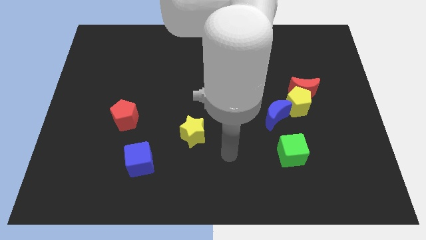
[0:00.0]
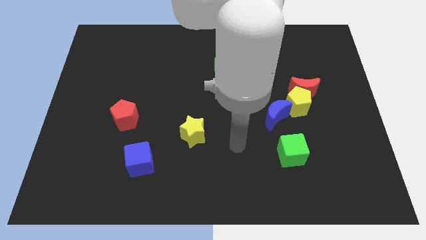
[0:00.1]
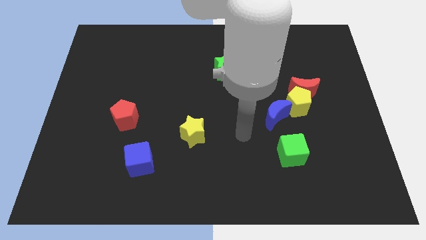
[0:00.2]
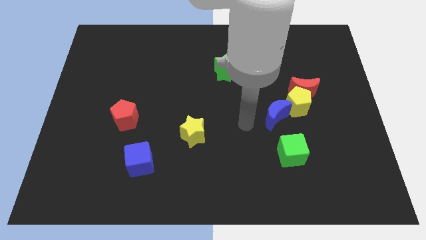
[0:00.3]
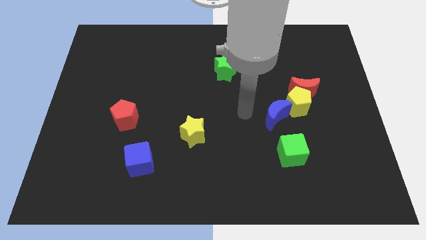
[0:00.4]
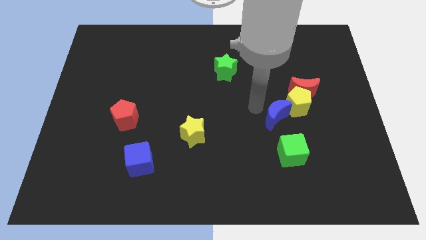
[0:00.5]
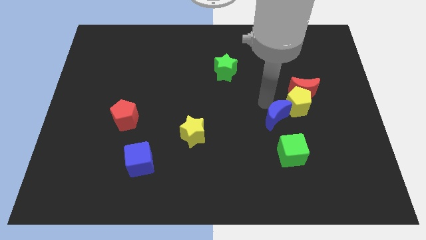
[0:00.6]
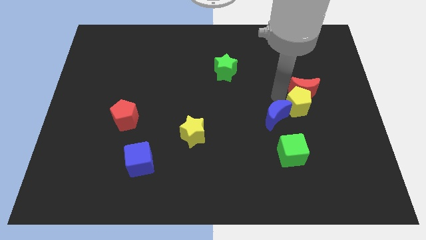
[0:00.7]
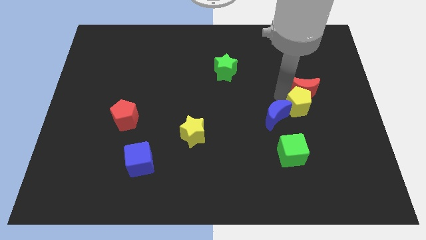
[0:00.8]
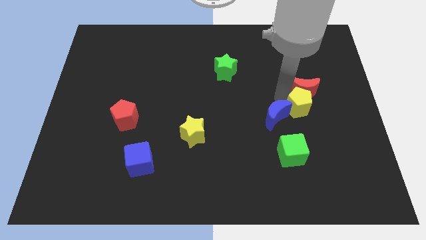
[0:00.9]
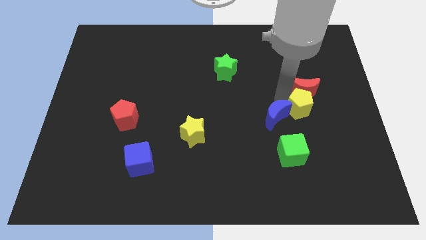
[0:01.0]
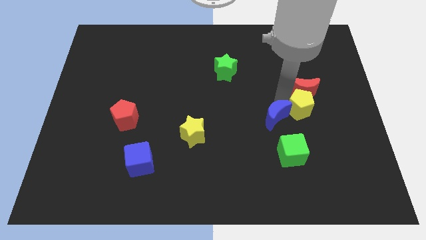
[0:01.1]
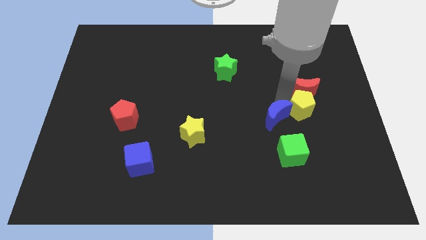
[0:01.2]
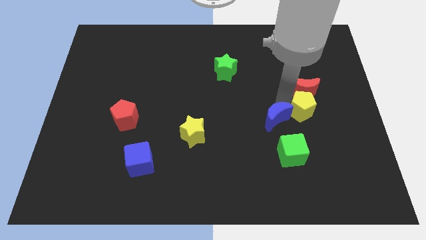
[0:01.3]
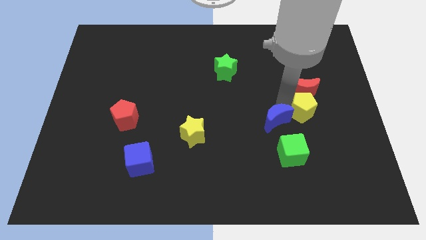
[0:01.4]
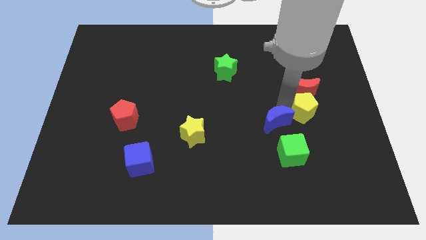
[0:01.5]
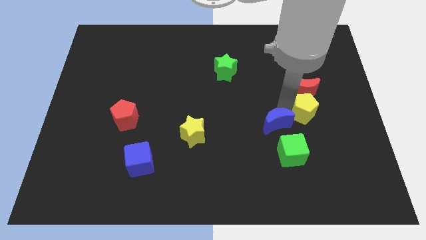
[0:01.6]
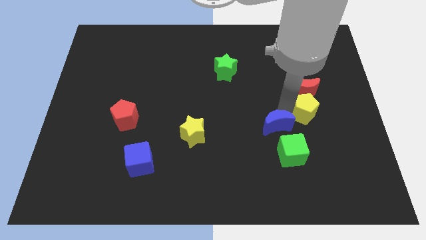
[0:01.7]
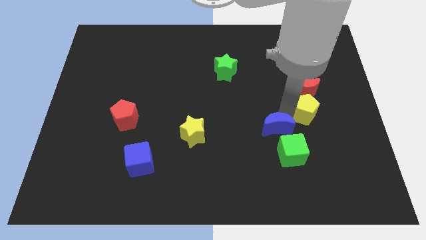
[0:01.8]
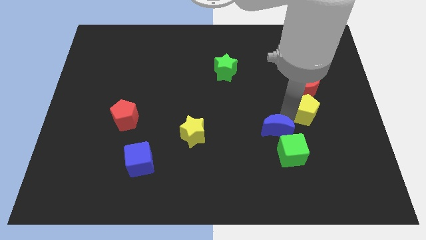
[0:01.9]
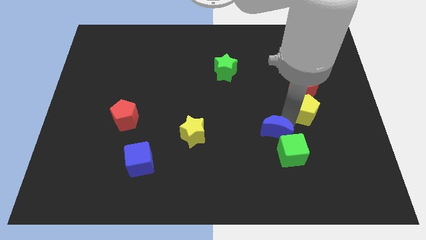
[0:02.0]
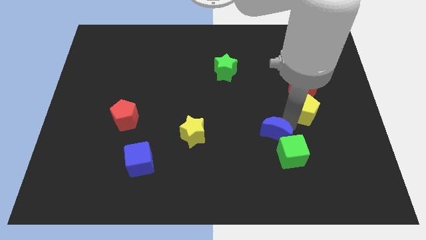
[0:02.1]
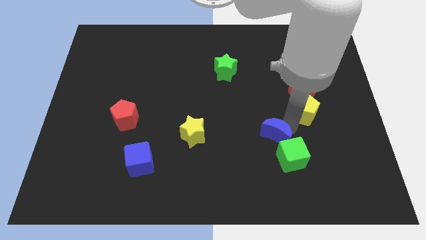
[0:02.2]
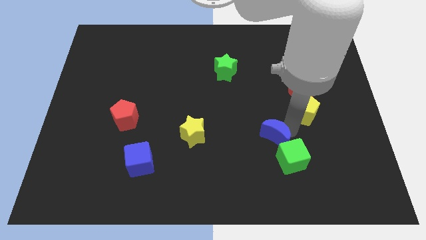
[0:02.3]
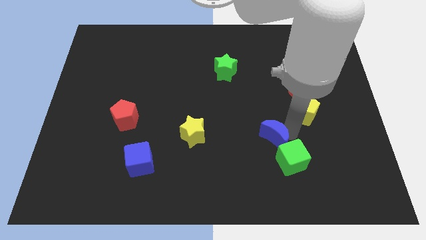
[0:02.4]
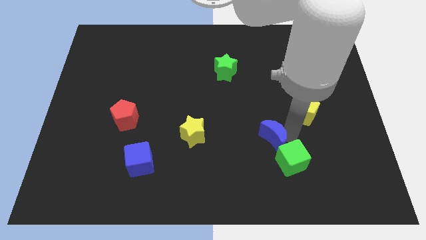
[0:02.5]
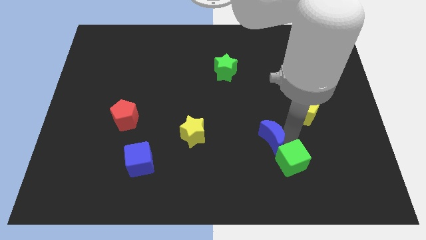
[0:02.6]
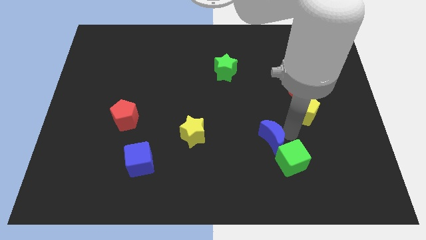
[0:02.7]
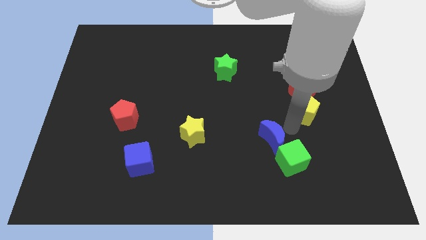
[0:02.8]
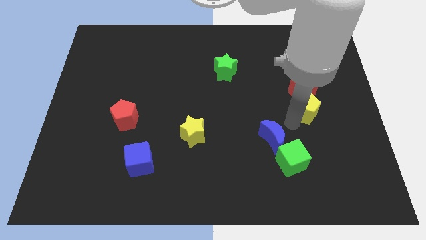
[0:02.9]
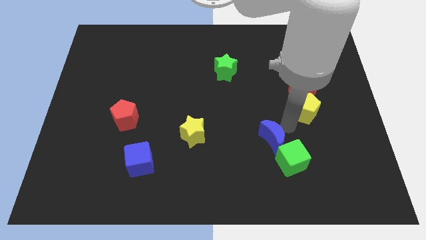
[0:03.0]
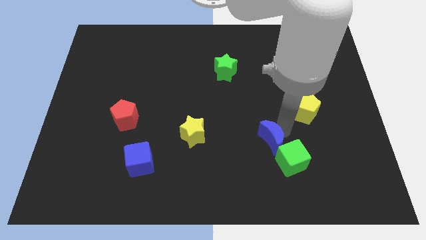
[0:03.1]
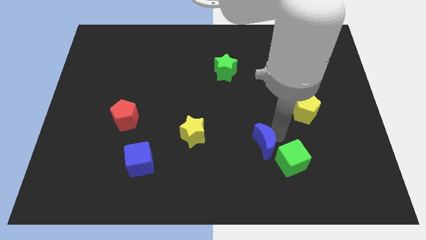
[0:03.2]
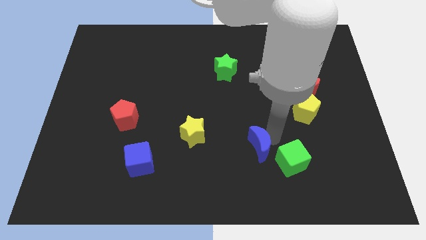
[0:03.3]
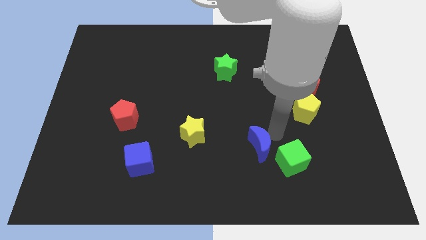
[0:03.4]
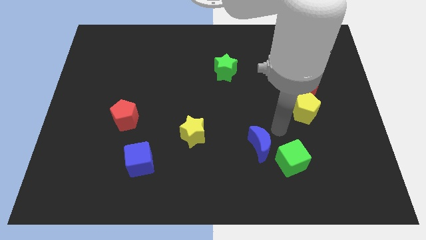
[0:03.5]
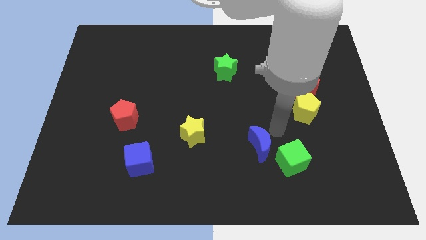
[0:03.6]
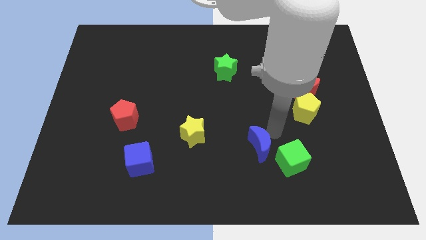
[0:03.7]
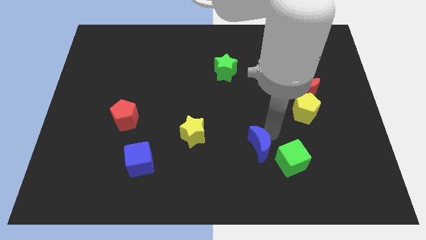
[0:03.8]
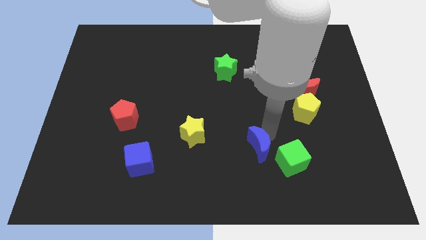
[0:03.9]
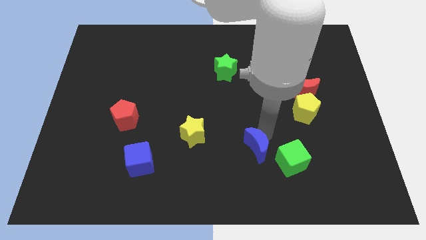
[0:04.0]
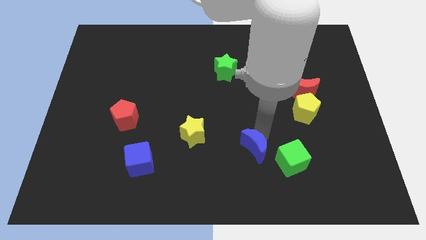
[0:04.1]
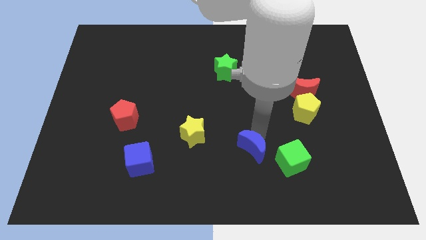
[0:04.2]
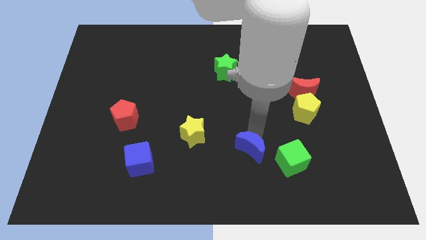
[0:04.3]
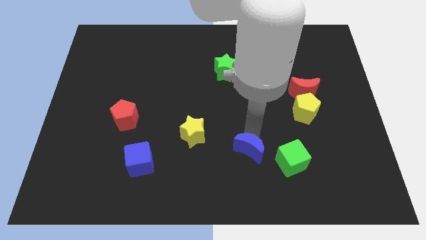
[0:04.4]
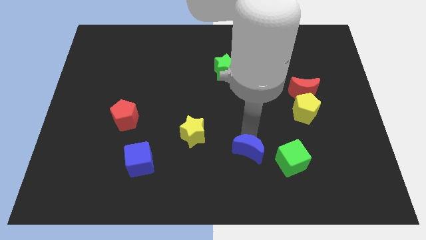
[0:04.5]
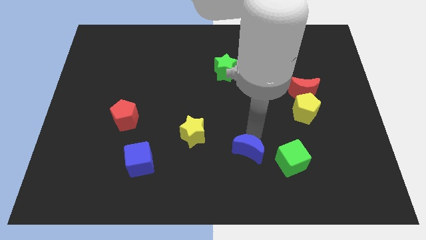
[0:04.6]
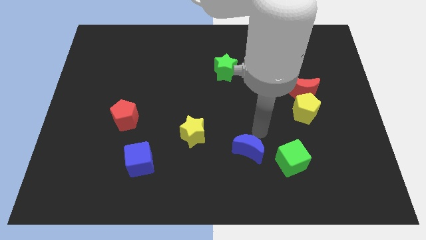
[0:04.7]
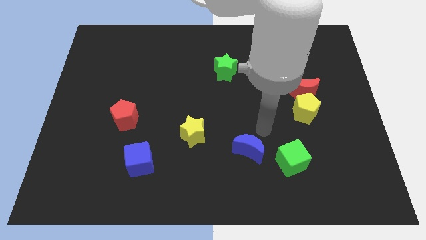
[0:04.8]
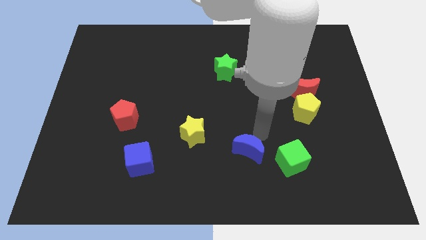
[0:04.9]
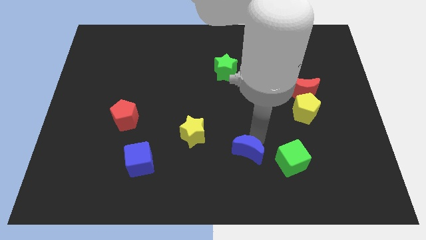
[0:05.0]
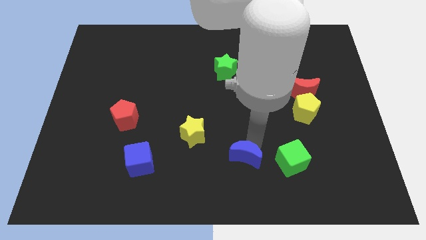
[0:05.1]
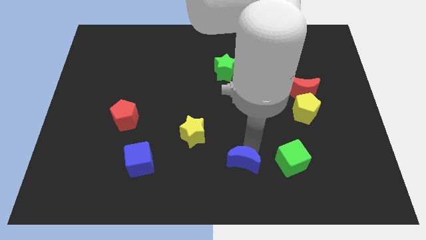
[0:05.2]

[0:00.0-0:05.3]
slide the blue moon to the bottom
